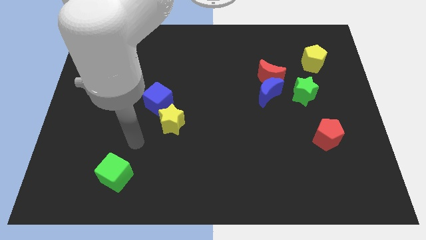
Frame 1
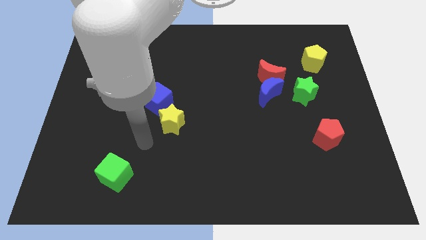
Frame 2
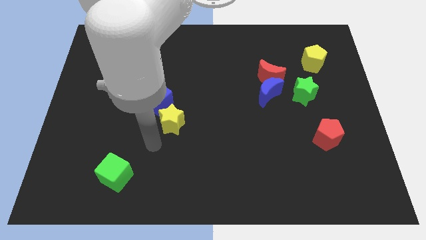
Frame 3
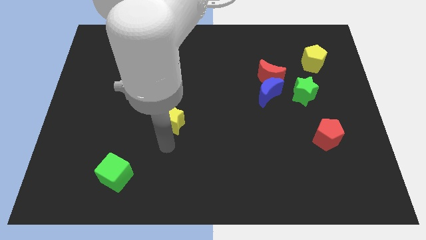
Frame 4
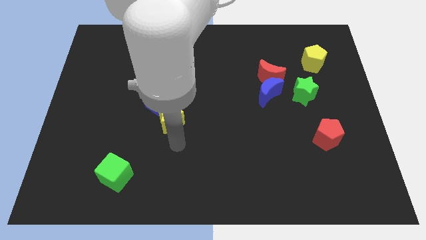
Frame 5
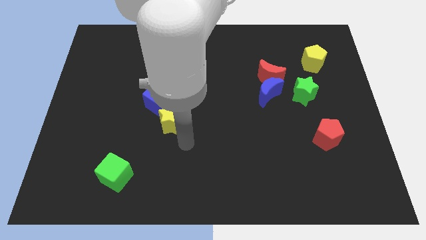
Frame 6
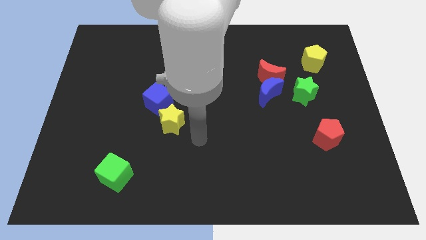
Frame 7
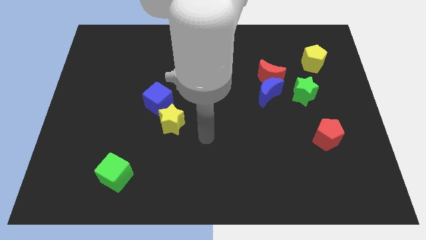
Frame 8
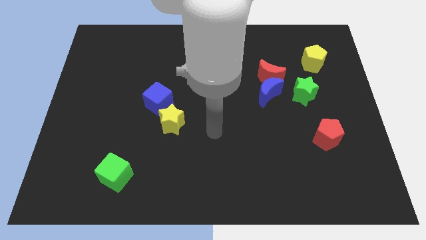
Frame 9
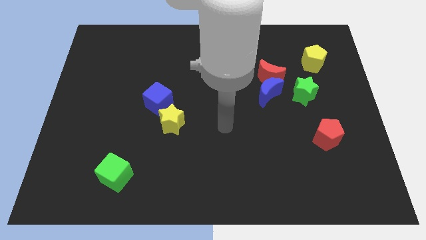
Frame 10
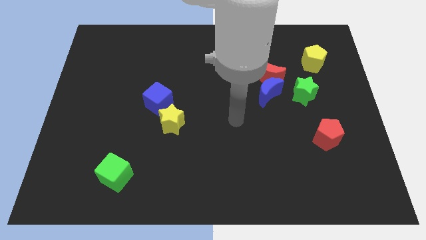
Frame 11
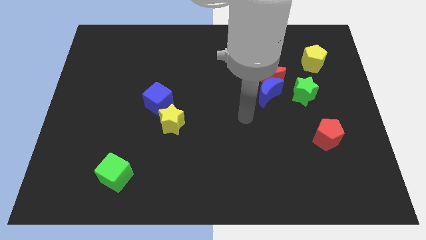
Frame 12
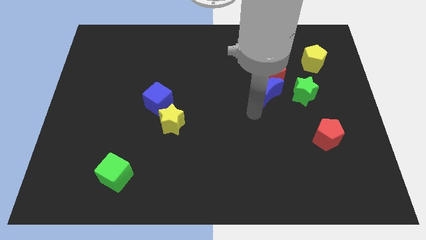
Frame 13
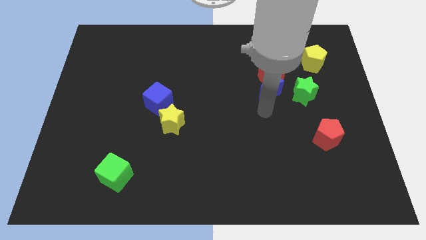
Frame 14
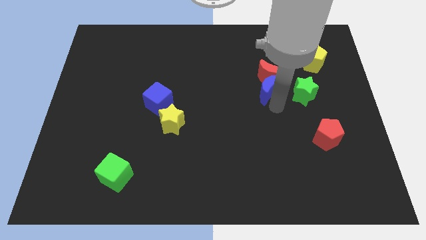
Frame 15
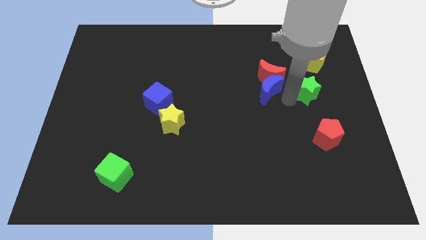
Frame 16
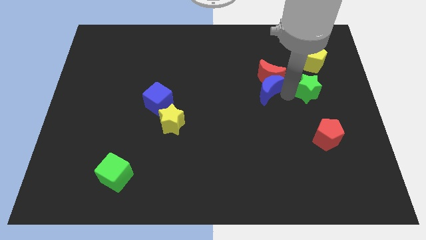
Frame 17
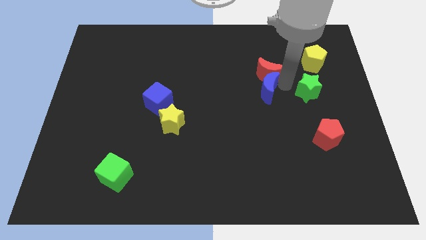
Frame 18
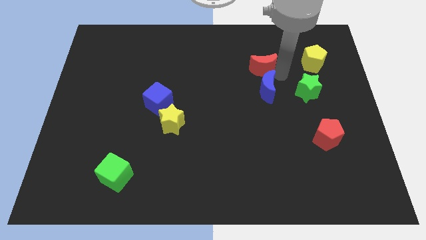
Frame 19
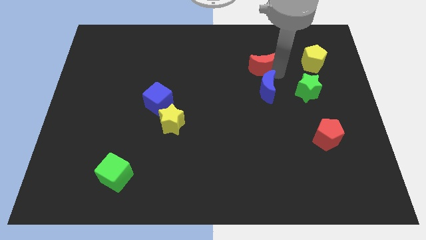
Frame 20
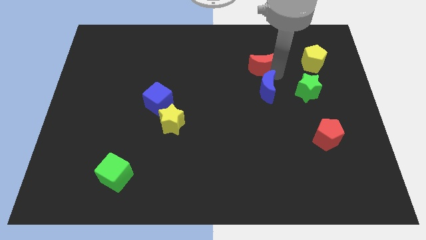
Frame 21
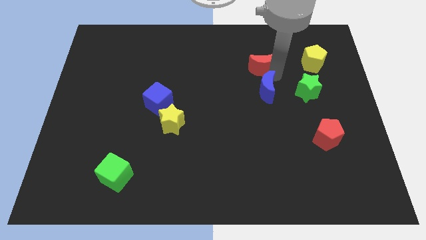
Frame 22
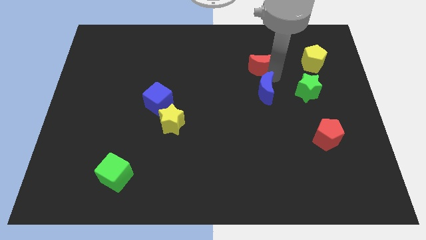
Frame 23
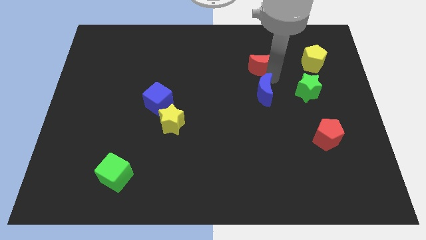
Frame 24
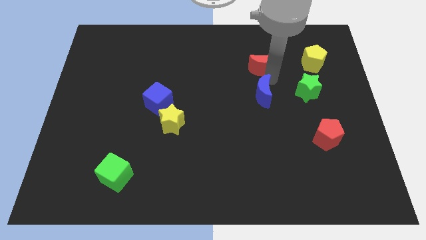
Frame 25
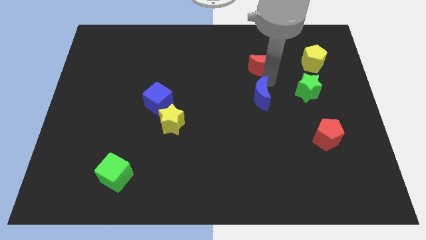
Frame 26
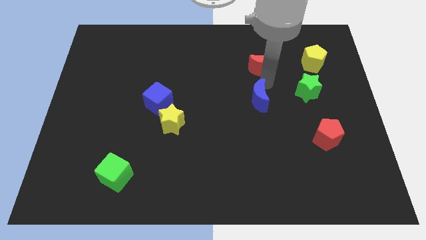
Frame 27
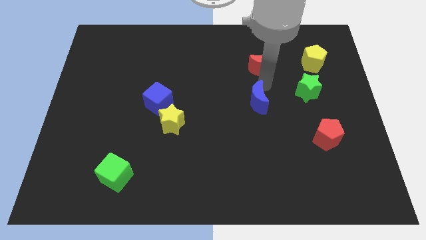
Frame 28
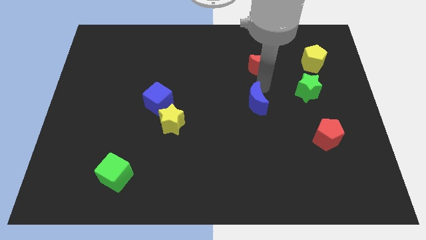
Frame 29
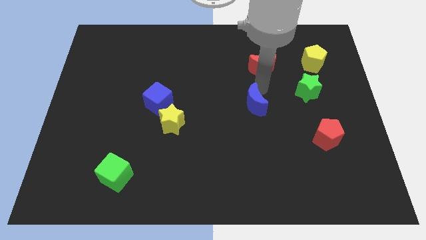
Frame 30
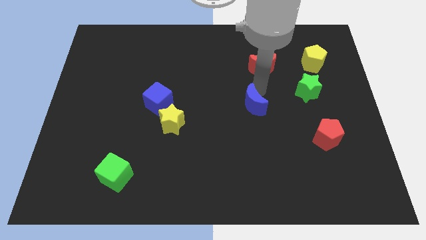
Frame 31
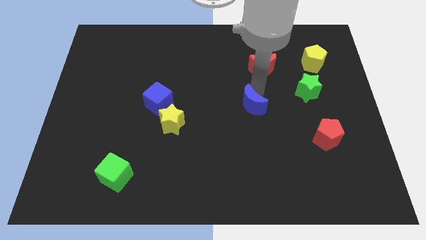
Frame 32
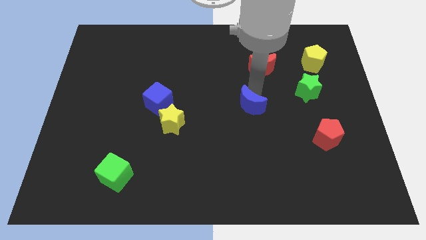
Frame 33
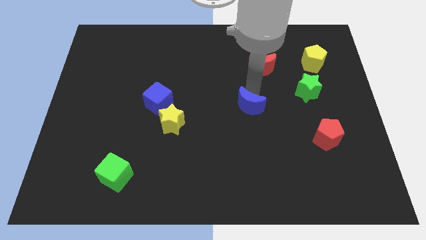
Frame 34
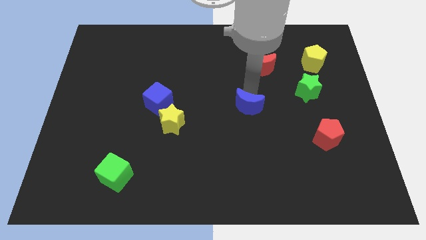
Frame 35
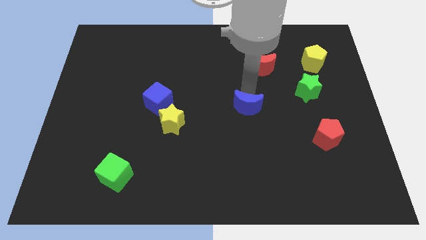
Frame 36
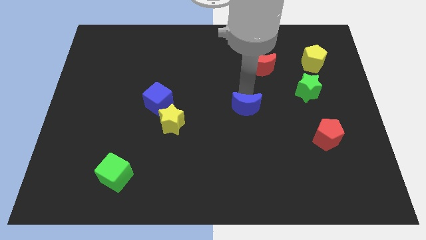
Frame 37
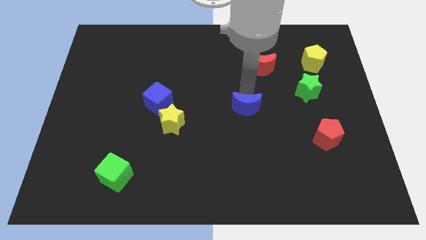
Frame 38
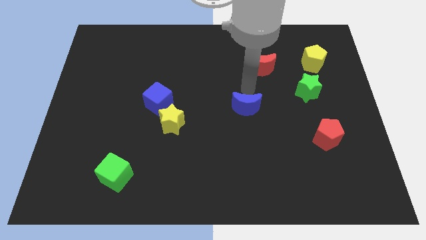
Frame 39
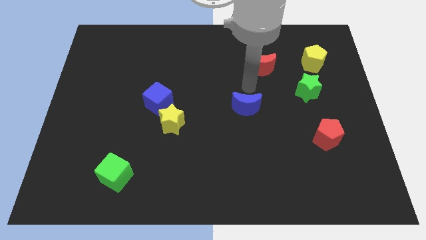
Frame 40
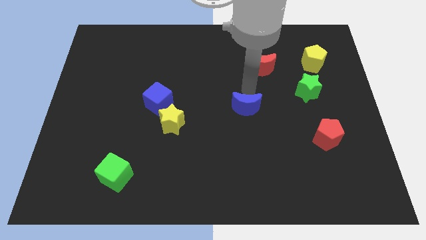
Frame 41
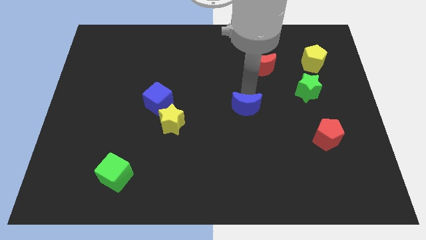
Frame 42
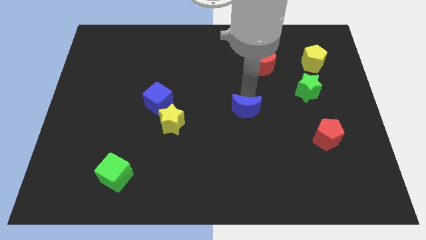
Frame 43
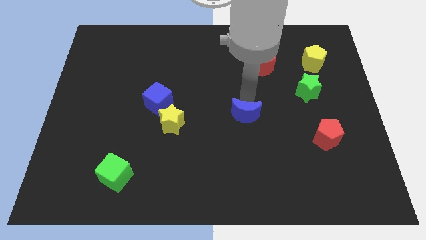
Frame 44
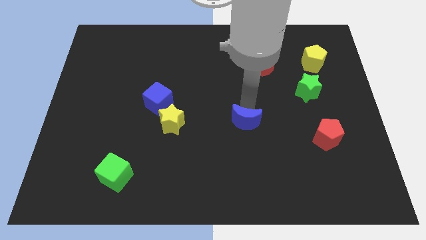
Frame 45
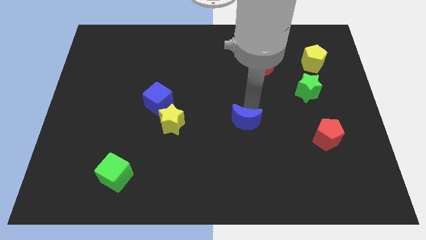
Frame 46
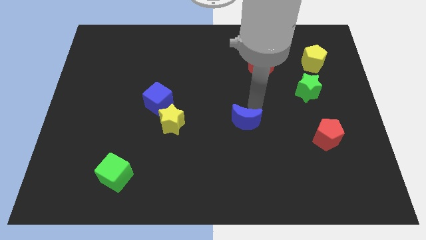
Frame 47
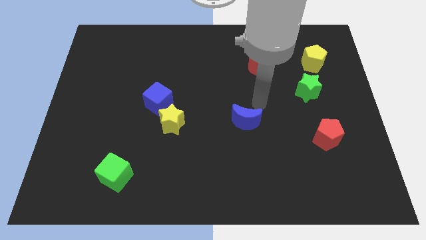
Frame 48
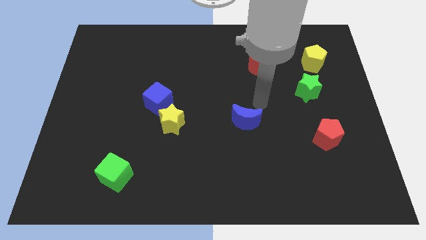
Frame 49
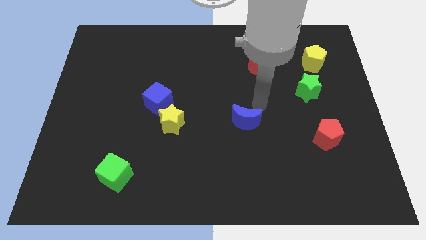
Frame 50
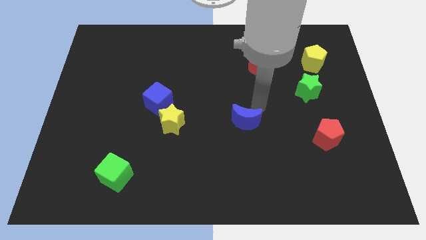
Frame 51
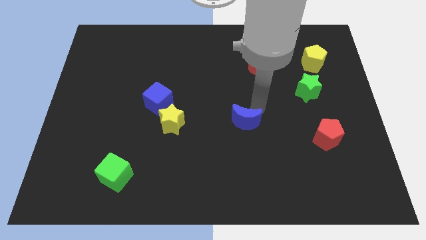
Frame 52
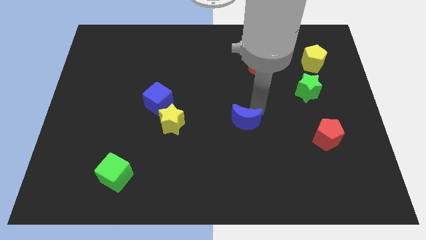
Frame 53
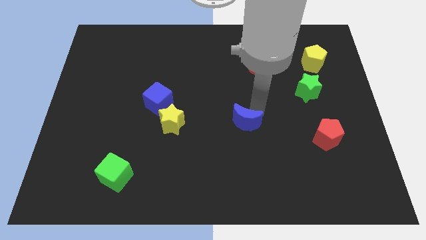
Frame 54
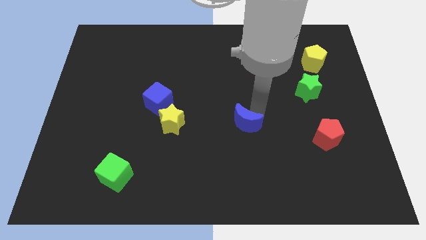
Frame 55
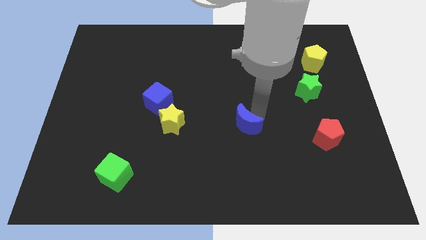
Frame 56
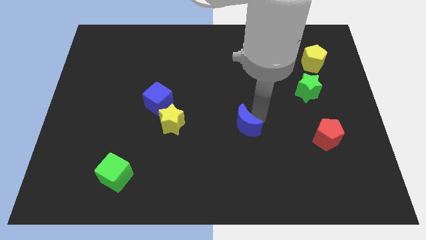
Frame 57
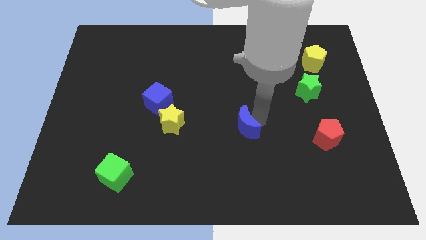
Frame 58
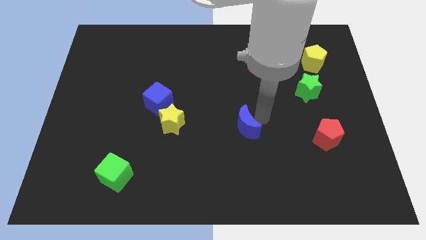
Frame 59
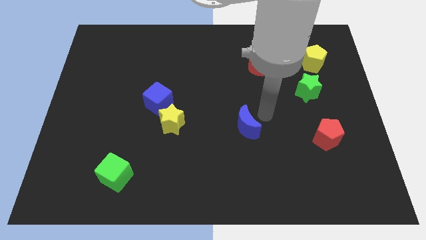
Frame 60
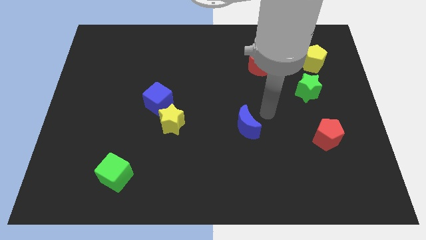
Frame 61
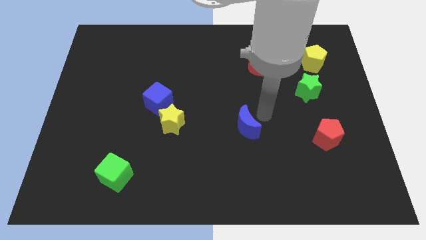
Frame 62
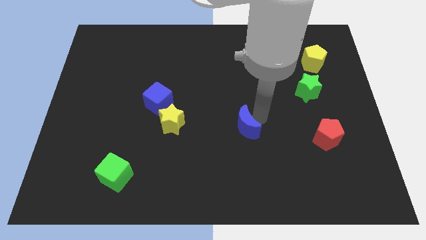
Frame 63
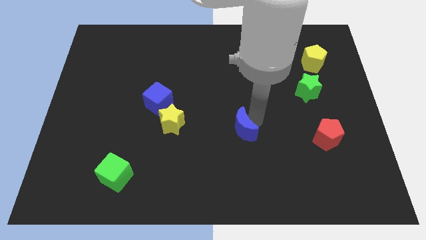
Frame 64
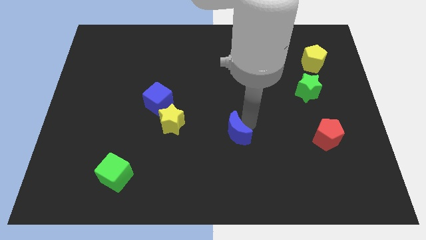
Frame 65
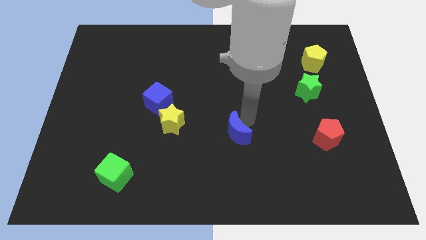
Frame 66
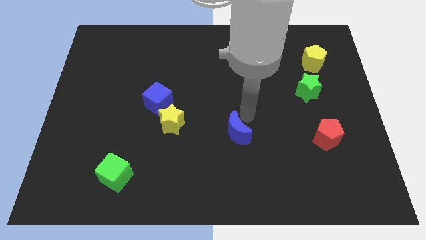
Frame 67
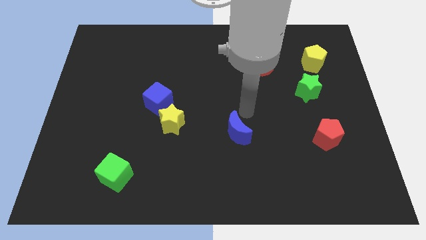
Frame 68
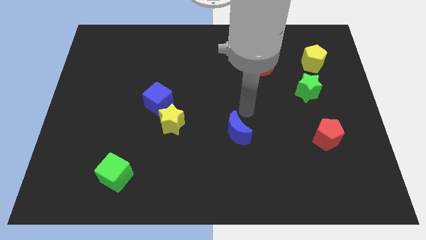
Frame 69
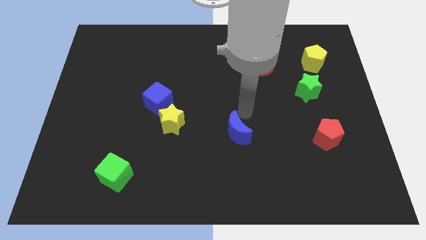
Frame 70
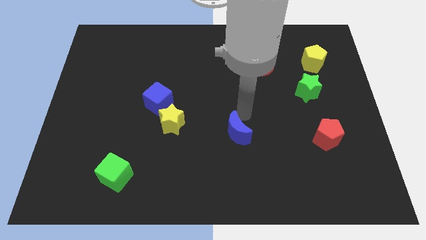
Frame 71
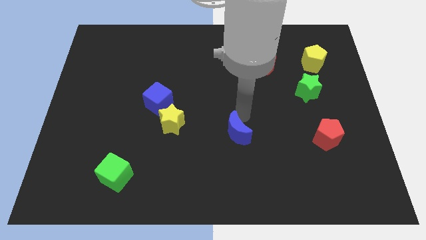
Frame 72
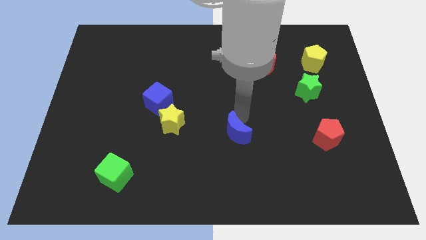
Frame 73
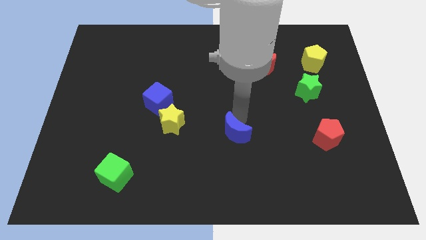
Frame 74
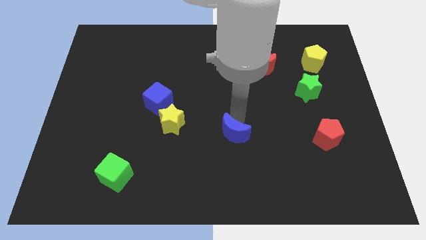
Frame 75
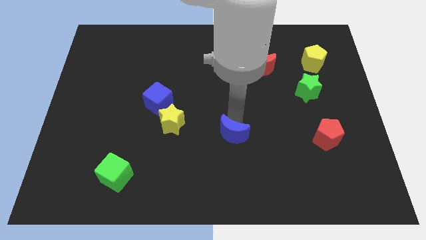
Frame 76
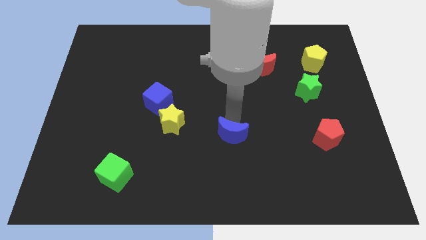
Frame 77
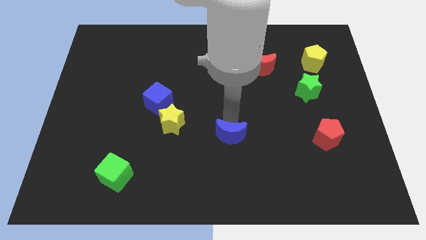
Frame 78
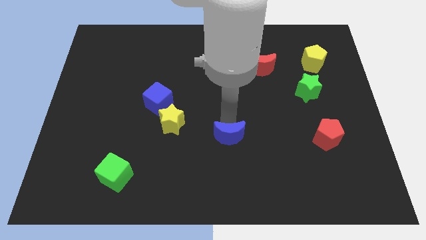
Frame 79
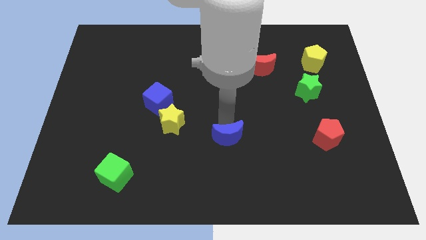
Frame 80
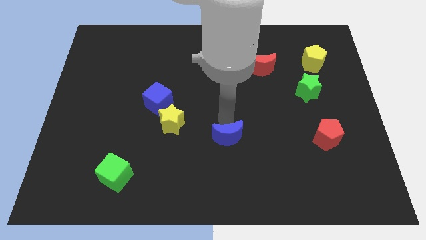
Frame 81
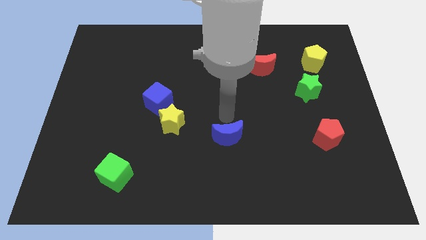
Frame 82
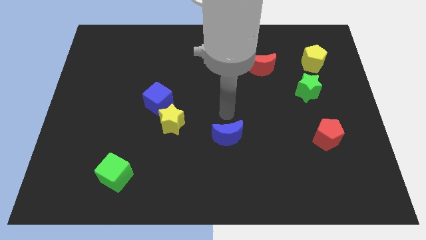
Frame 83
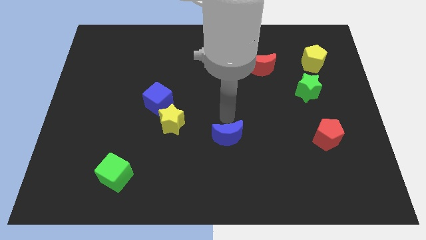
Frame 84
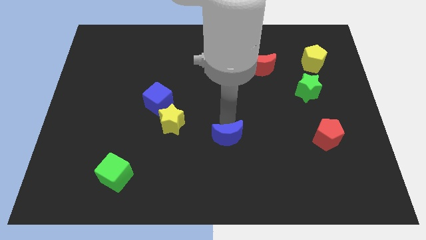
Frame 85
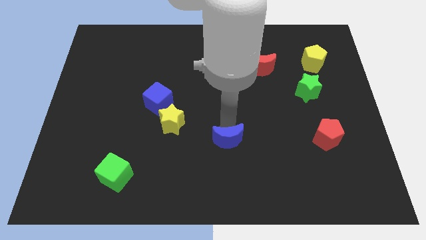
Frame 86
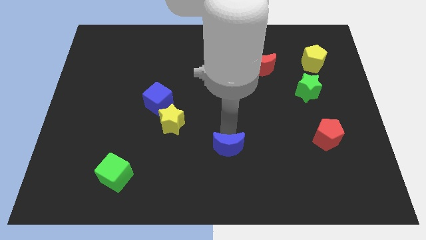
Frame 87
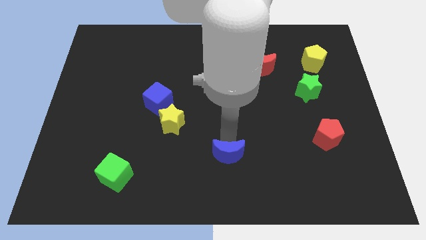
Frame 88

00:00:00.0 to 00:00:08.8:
slide the blue moon to the bottom side
